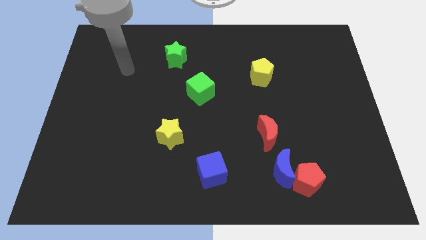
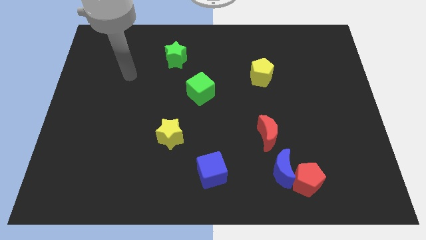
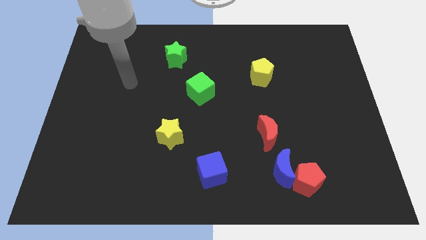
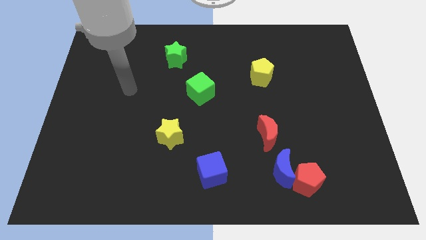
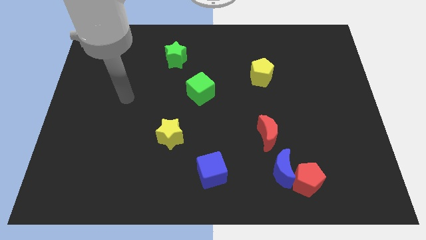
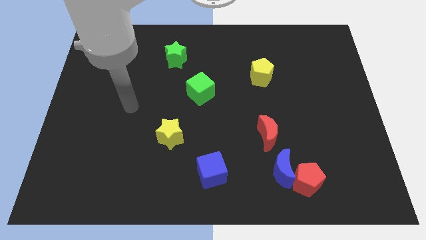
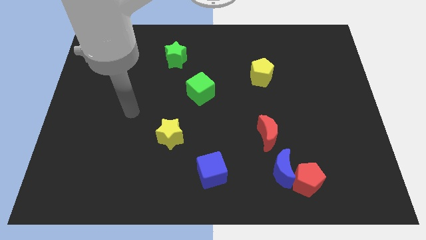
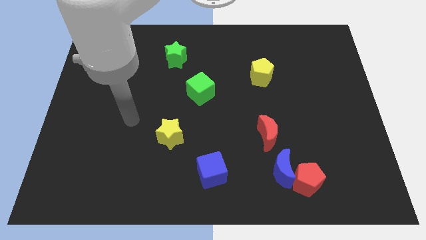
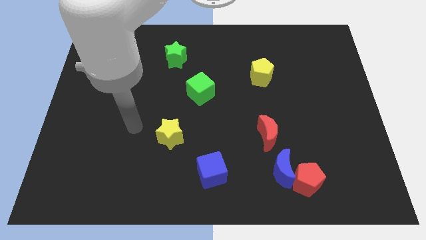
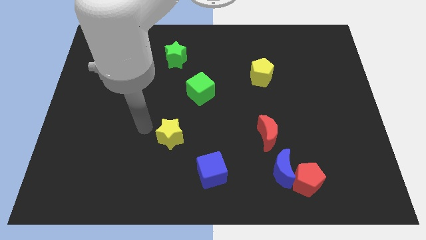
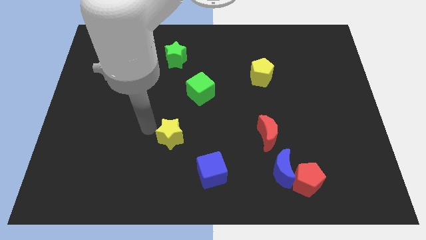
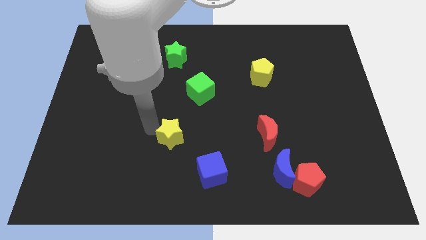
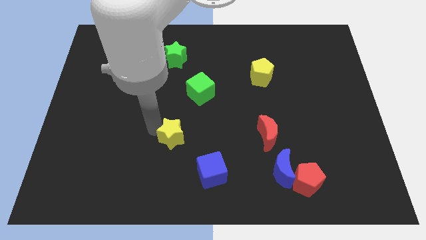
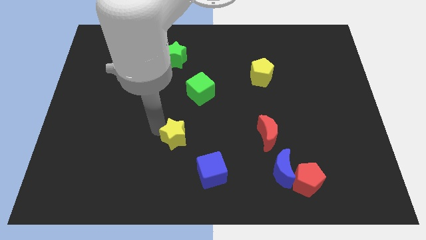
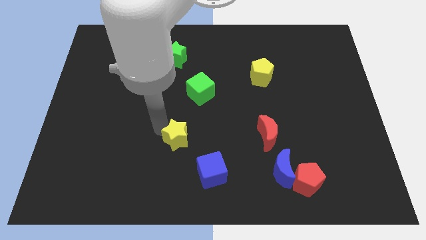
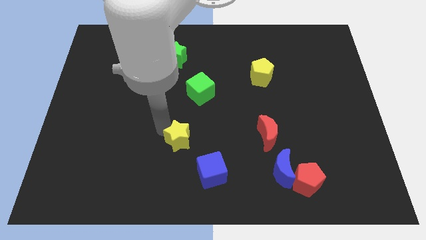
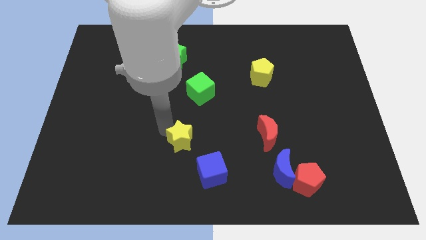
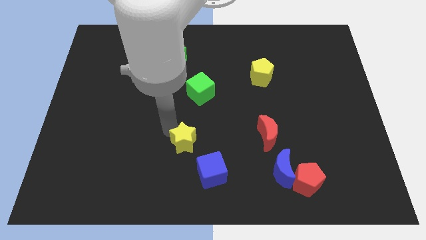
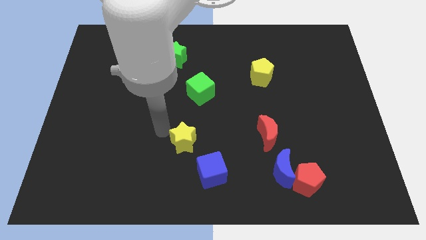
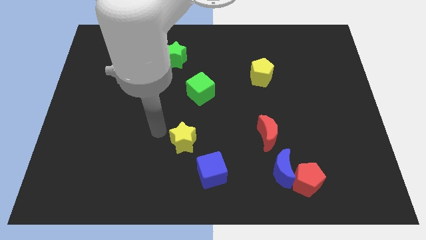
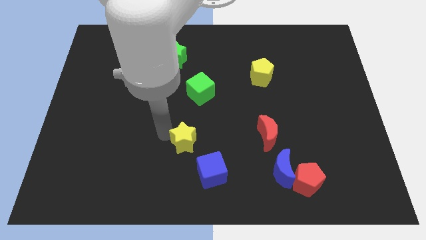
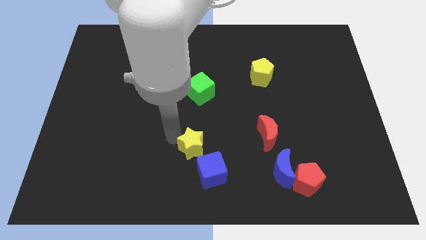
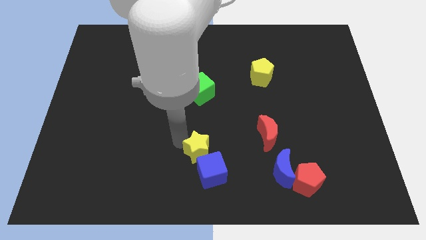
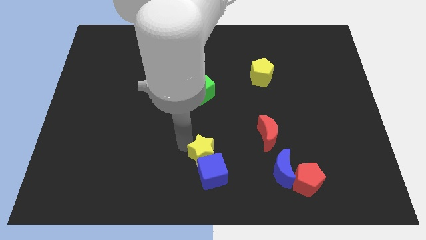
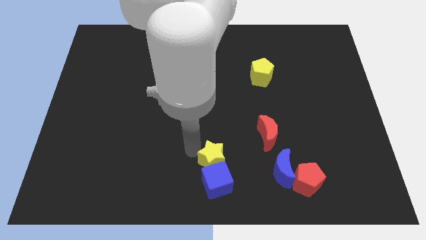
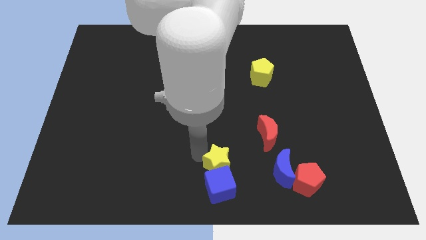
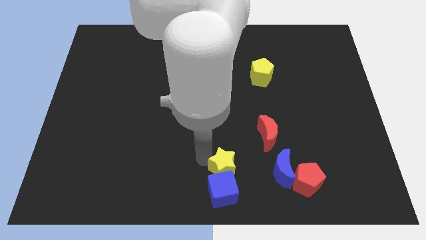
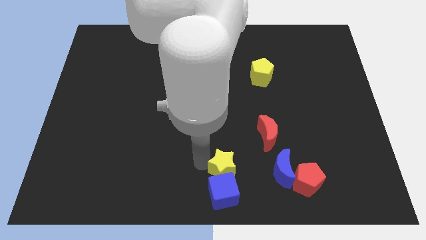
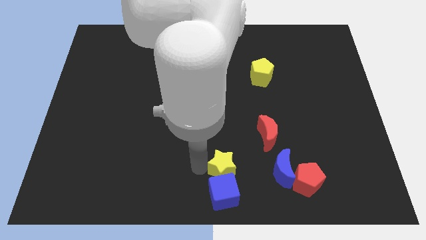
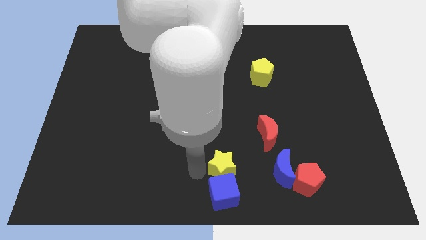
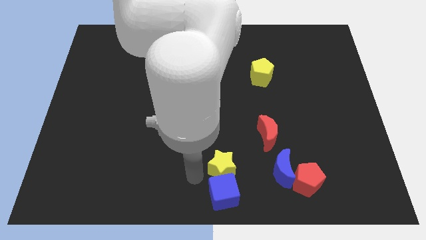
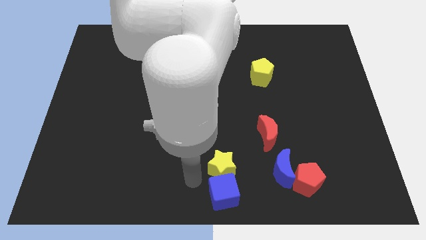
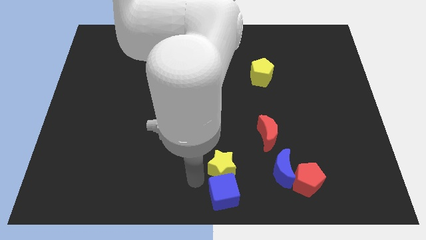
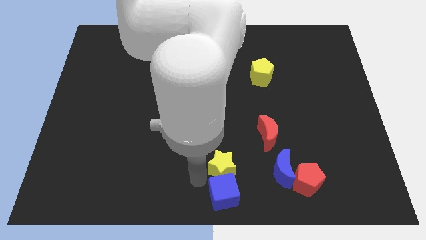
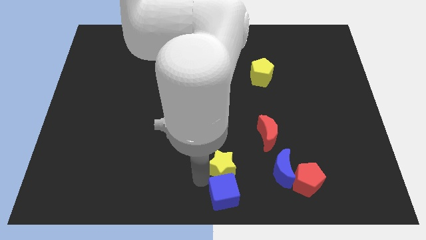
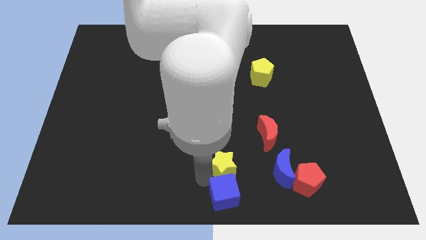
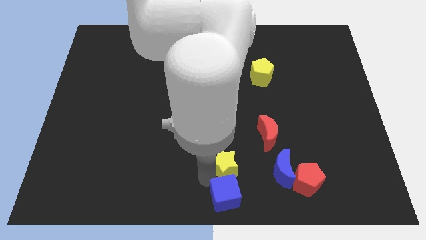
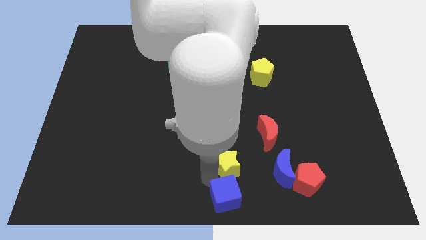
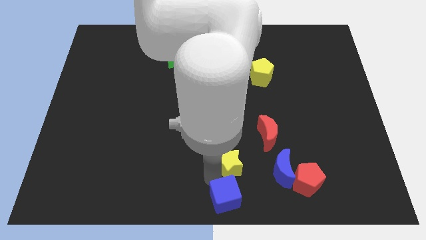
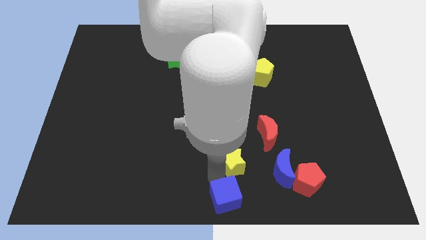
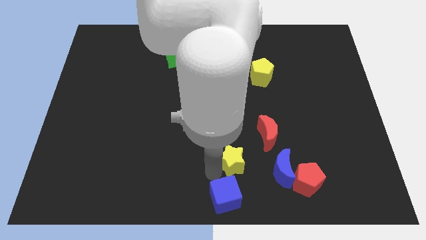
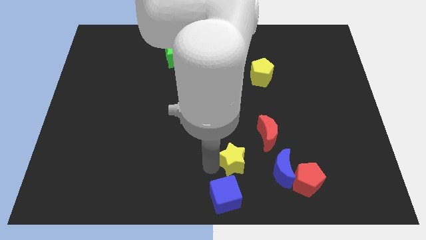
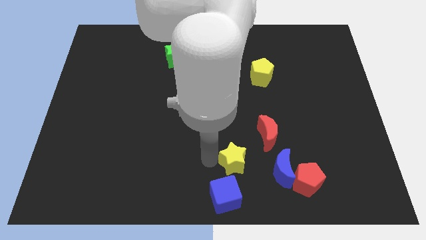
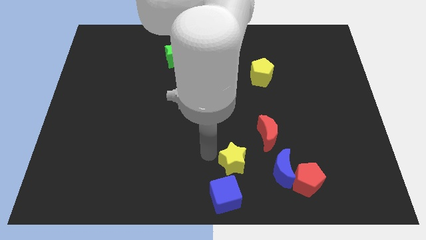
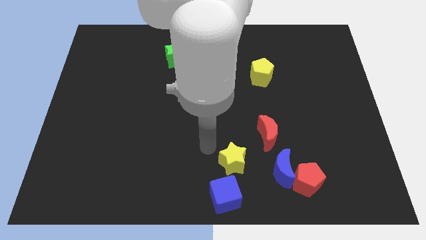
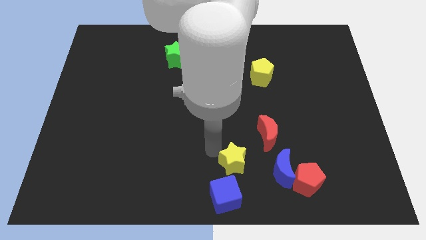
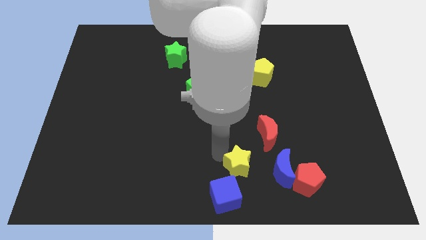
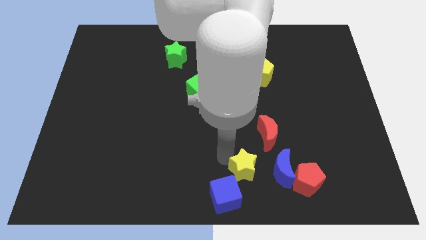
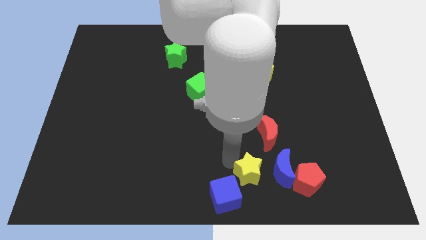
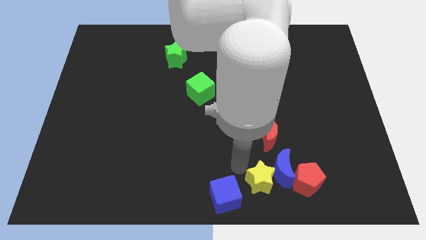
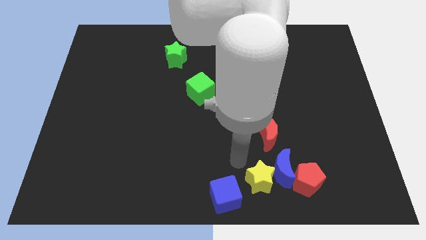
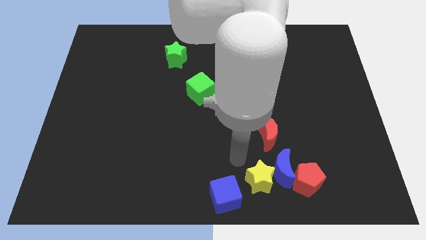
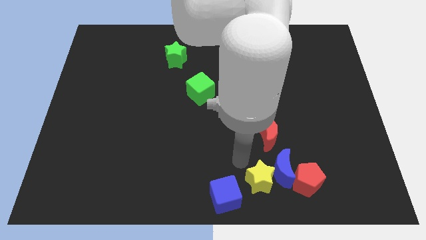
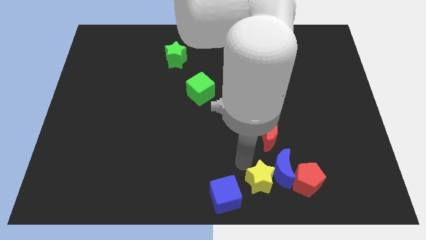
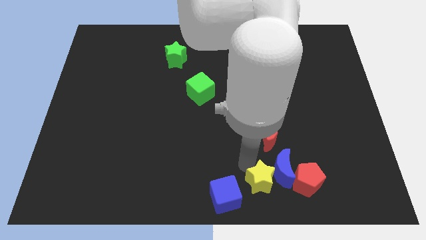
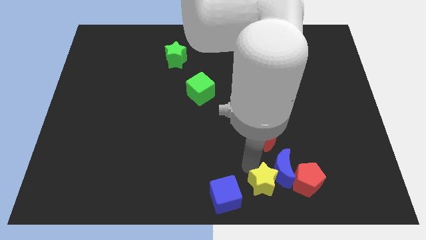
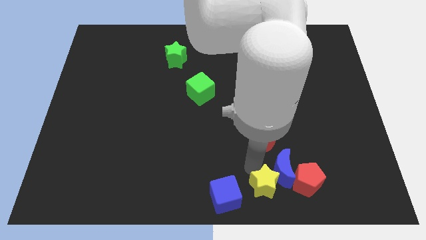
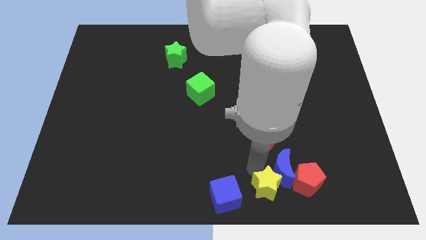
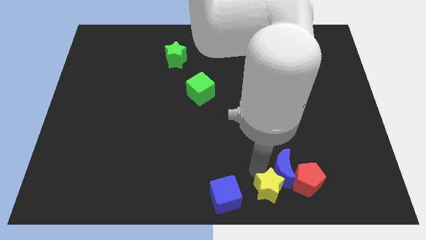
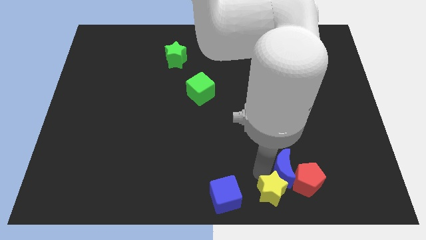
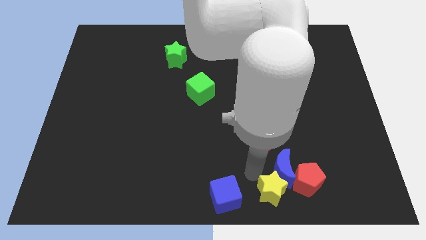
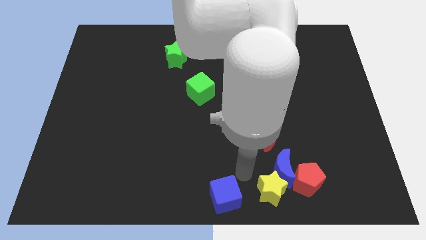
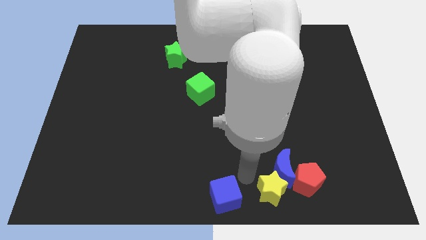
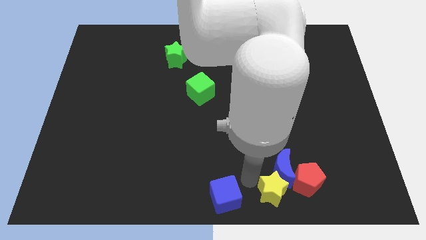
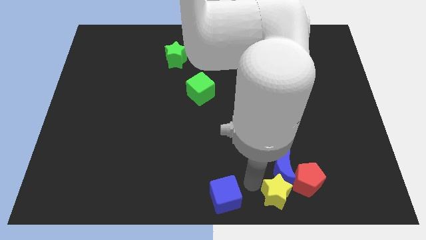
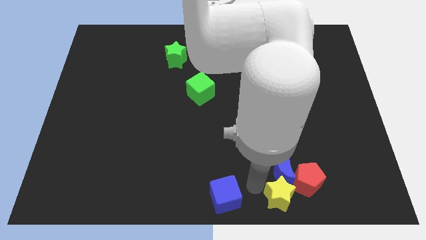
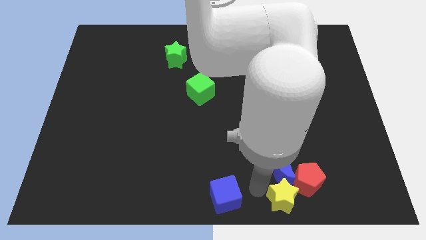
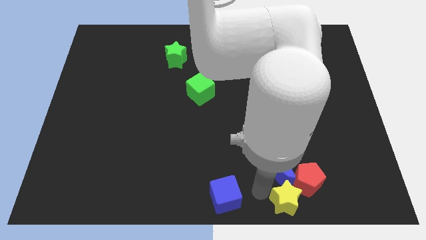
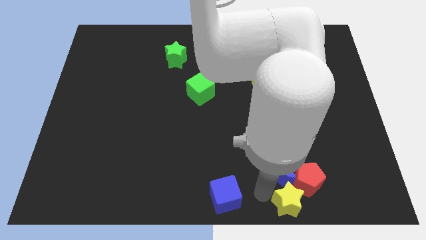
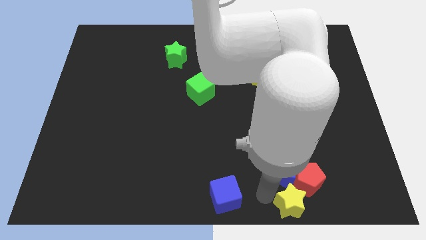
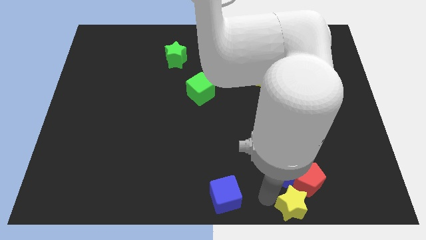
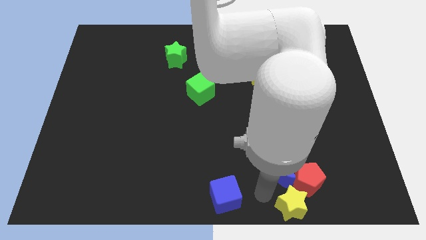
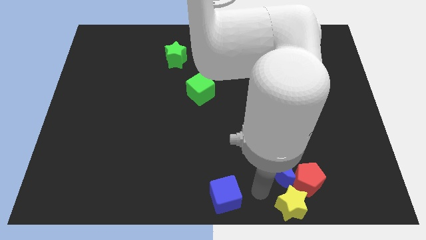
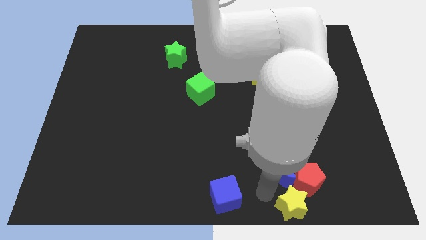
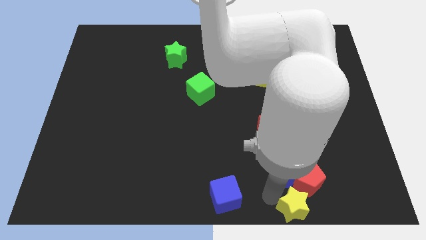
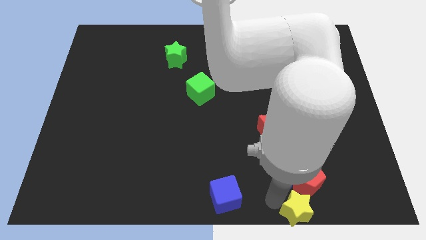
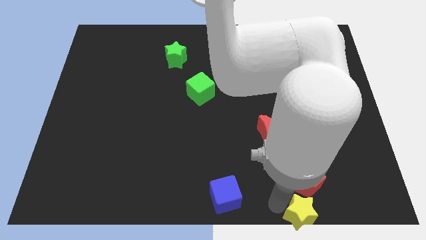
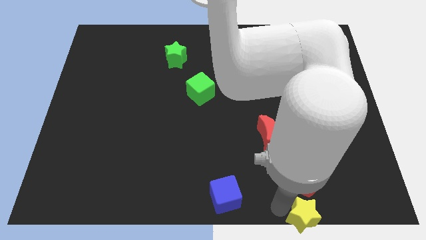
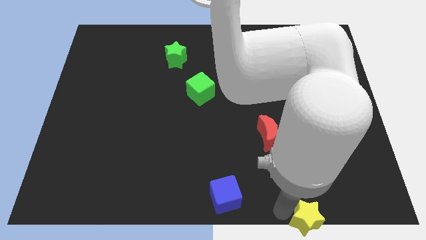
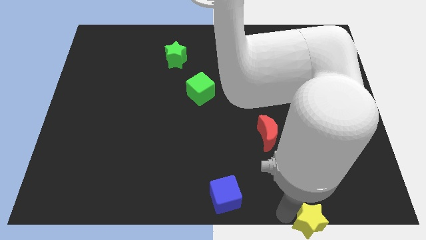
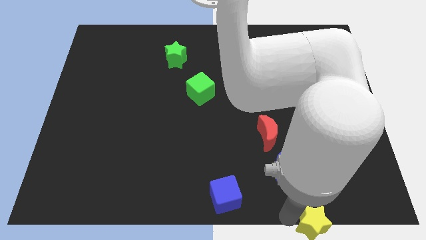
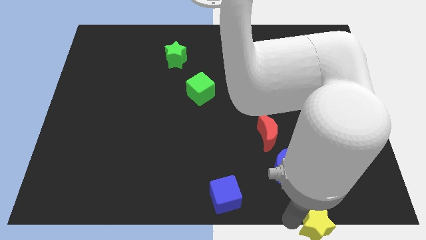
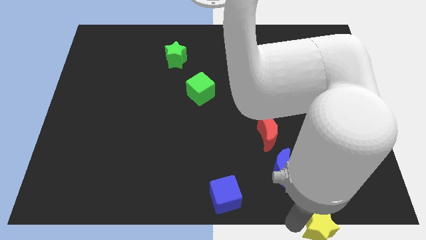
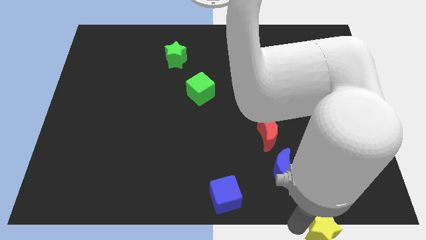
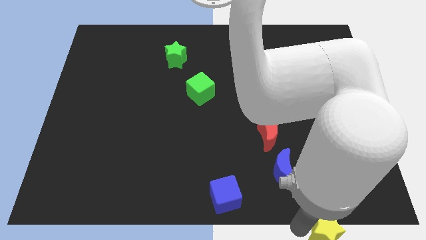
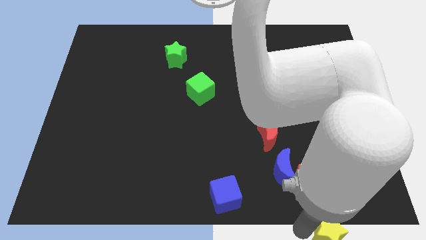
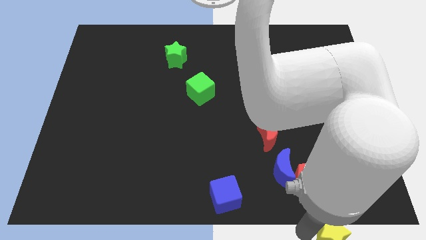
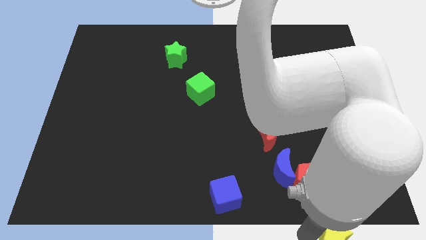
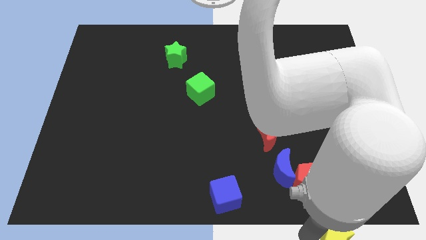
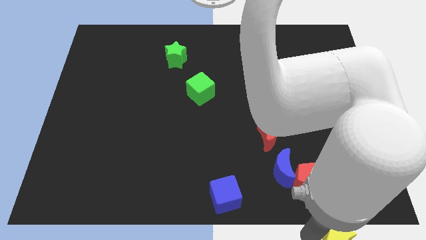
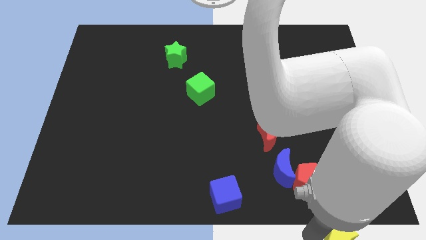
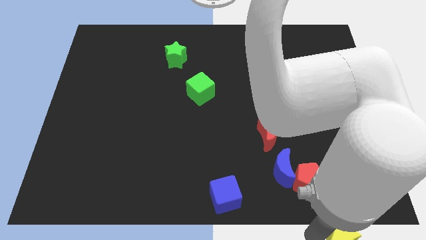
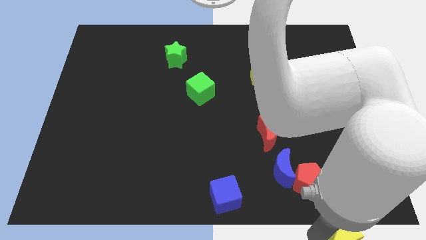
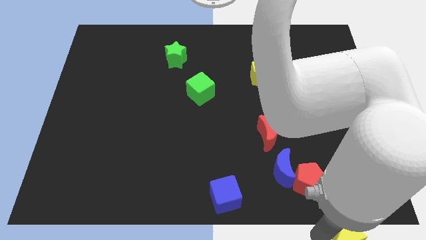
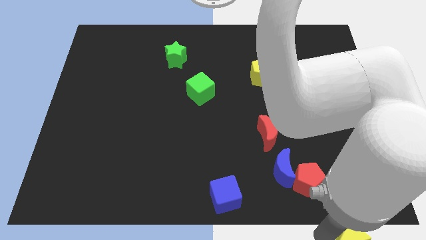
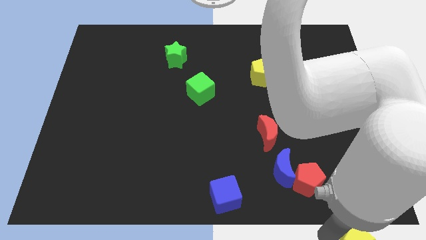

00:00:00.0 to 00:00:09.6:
slide the yellow star to the bottom right corner
